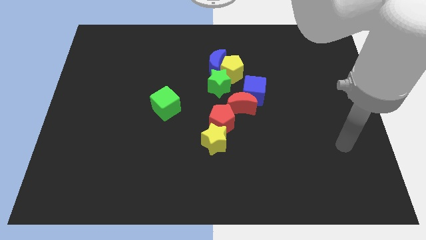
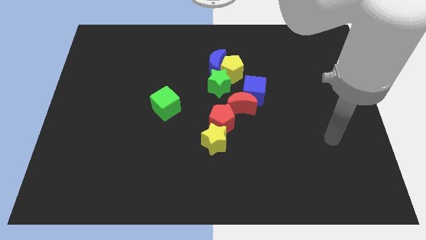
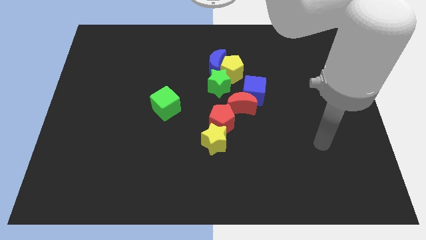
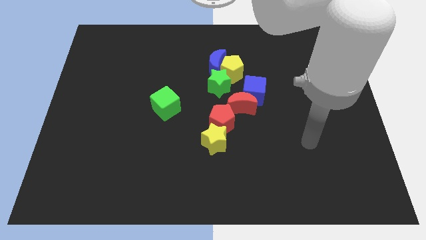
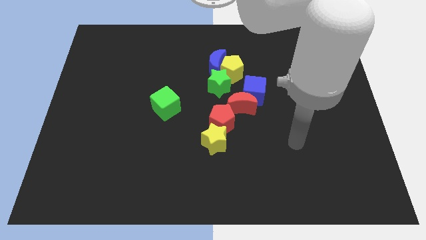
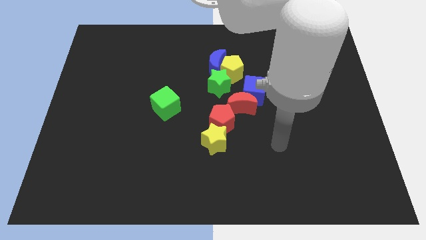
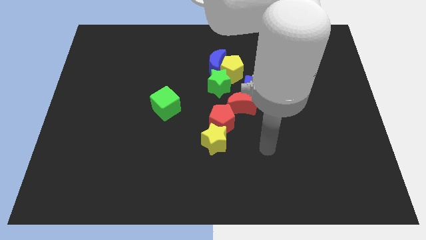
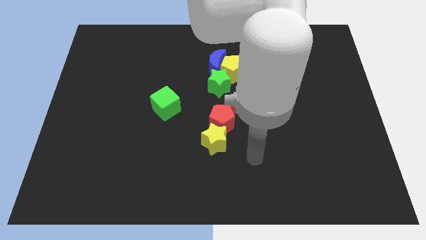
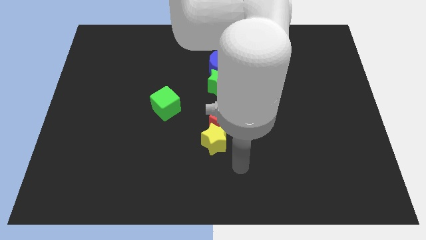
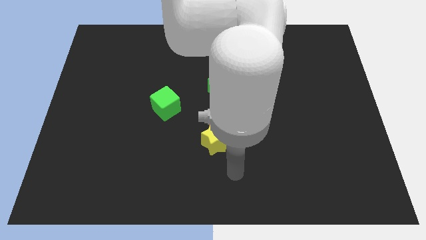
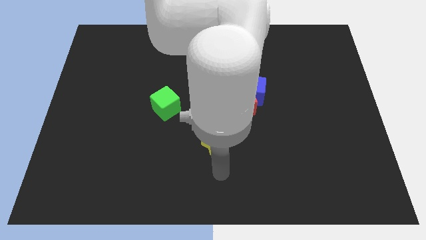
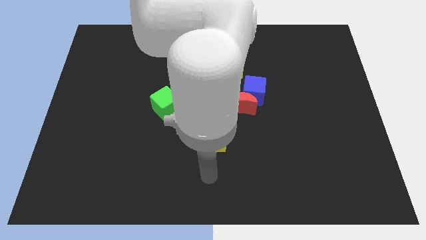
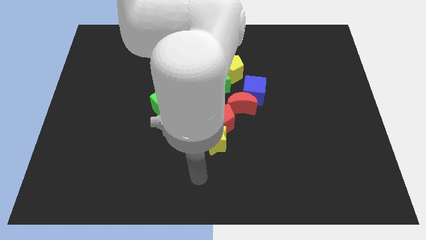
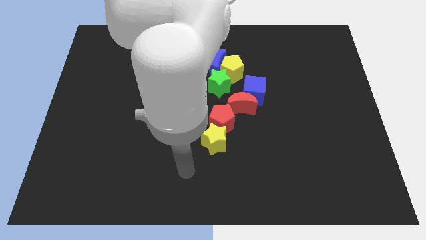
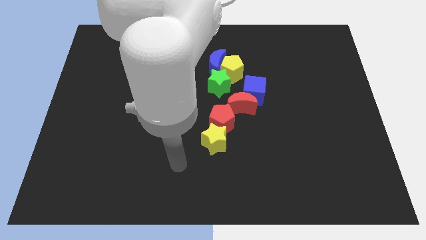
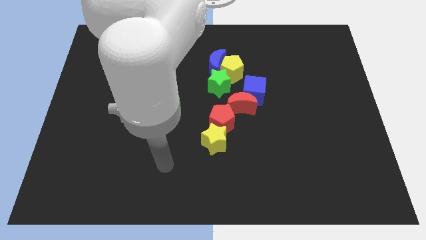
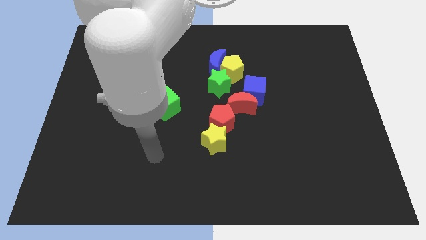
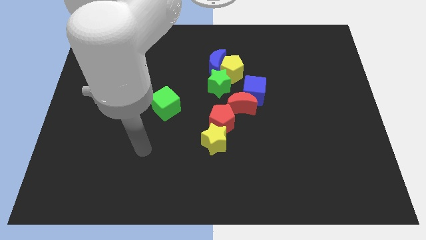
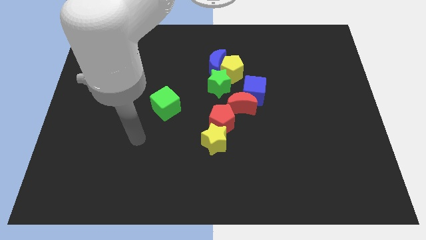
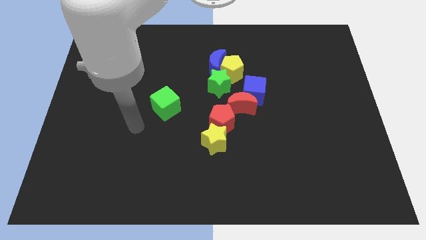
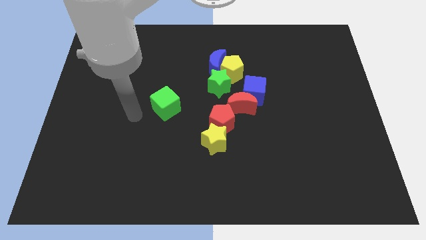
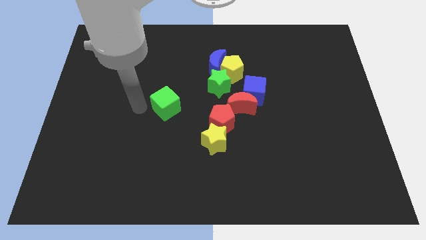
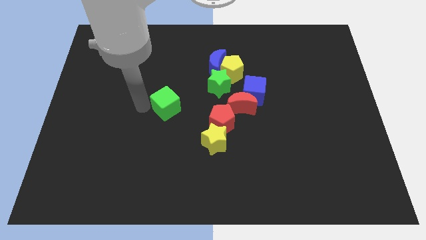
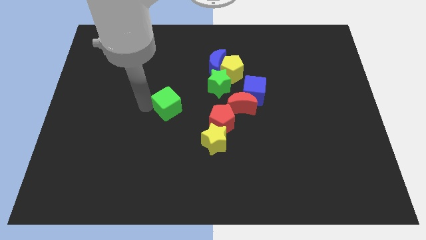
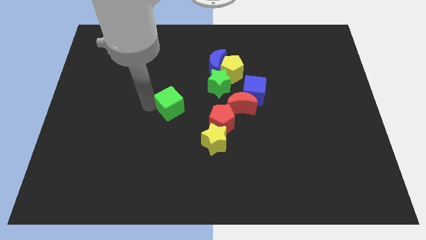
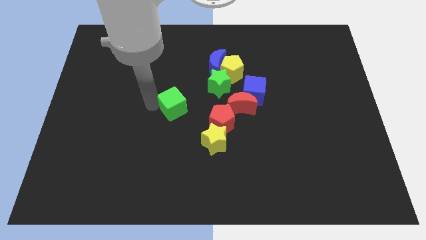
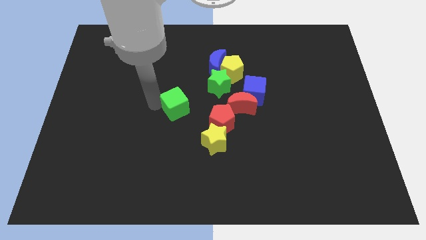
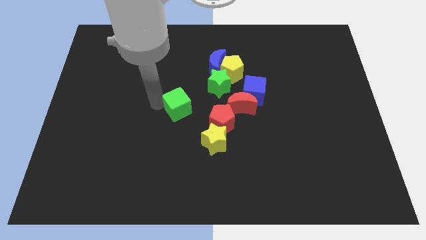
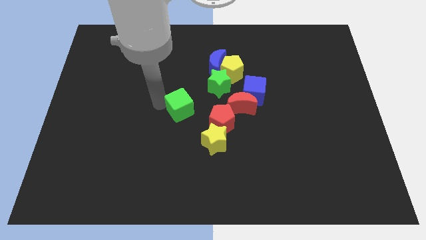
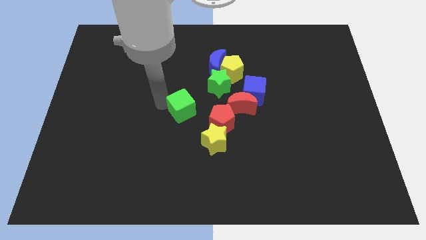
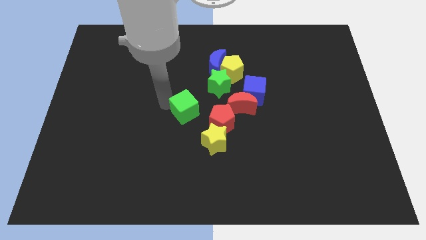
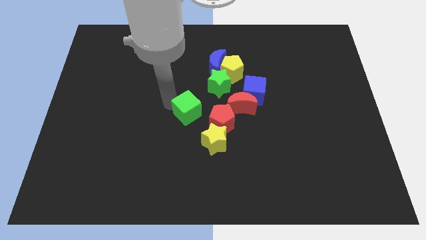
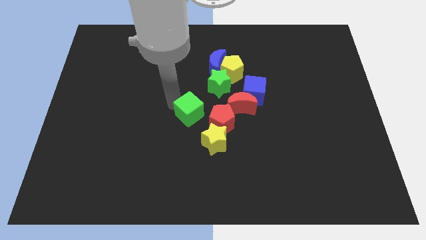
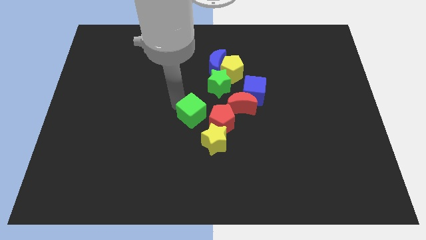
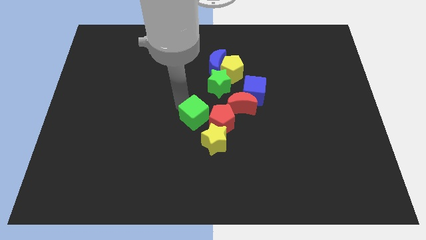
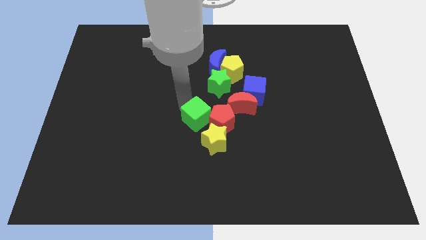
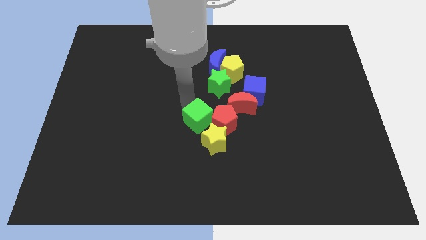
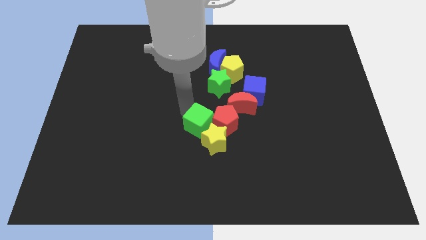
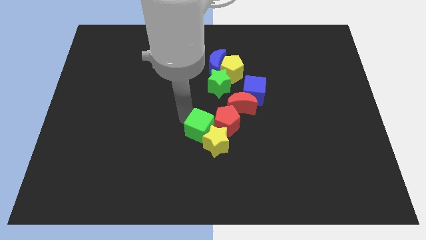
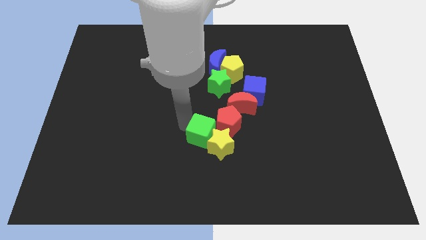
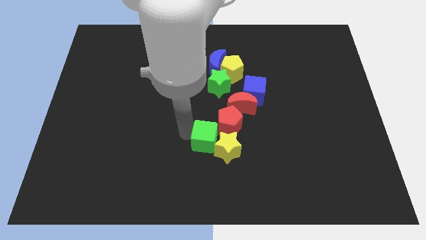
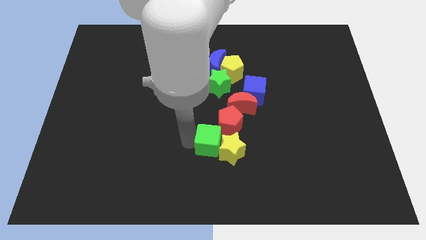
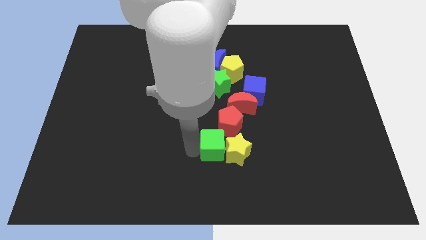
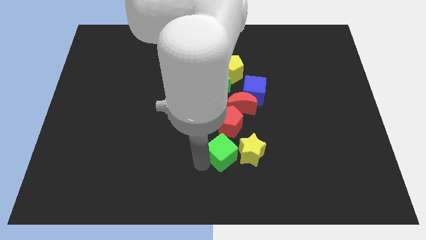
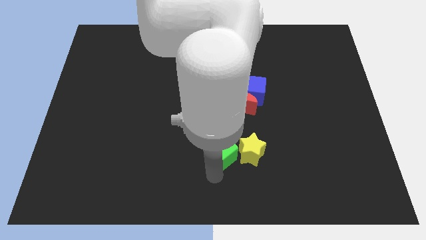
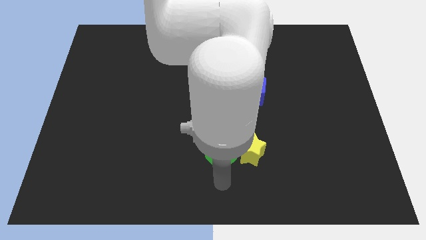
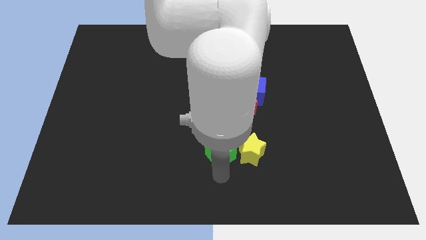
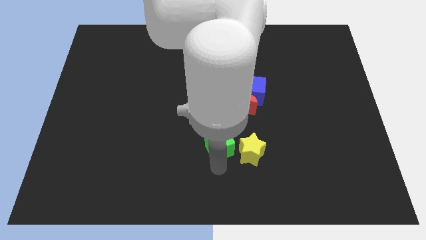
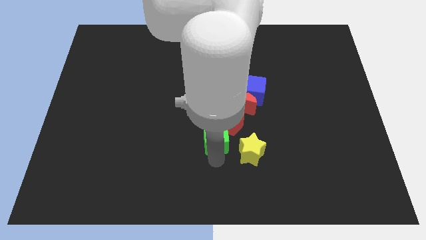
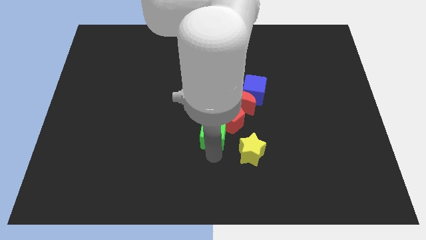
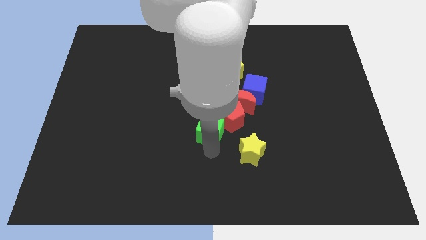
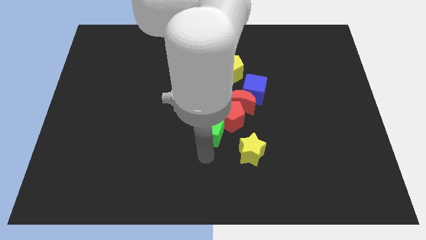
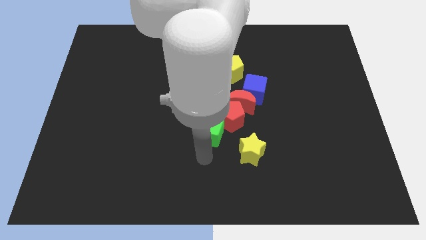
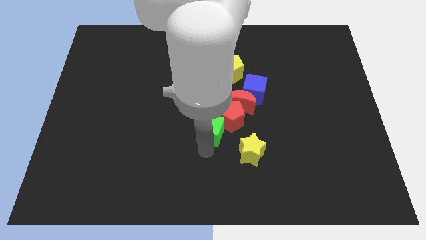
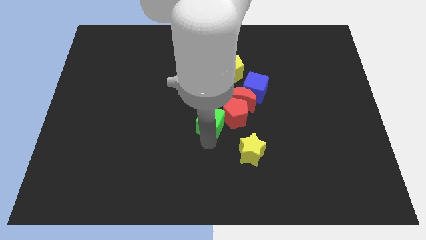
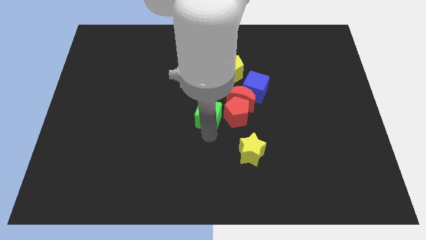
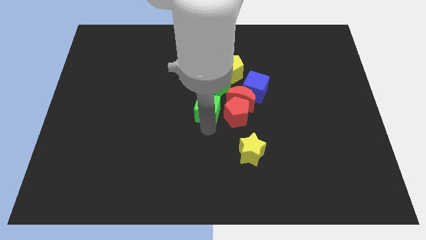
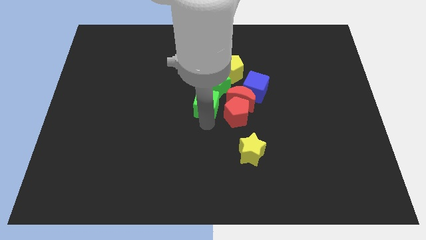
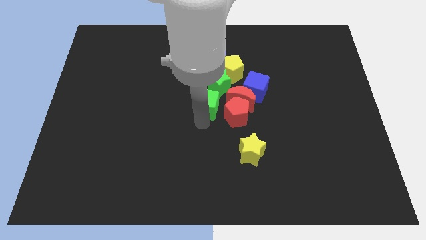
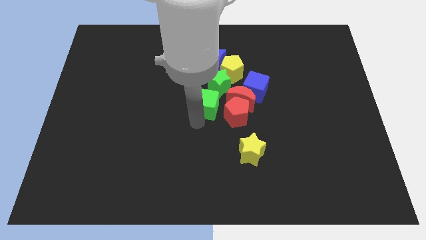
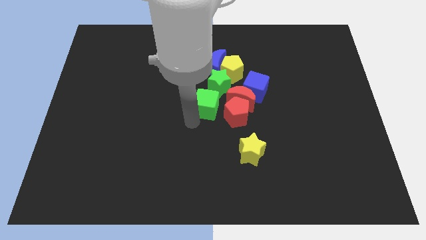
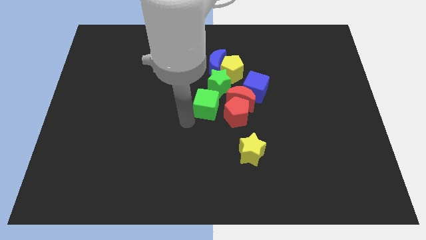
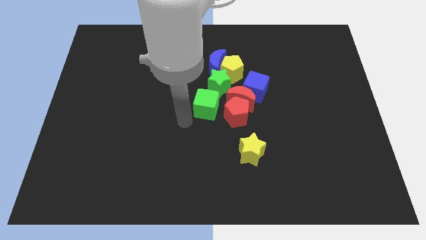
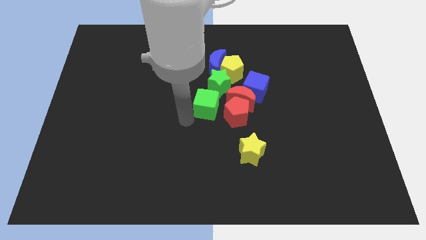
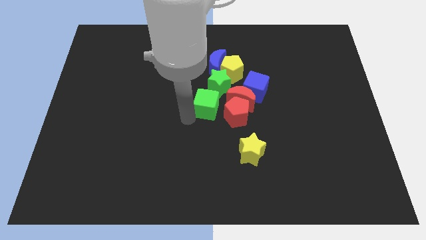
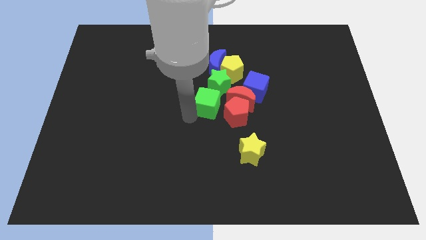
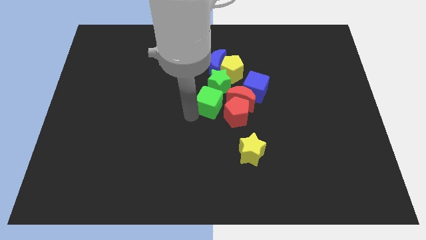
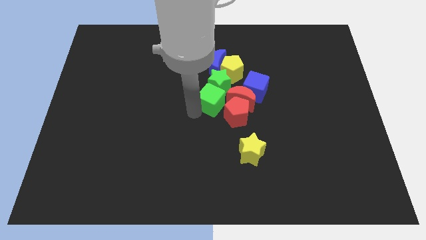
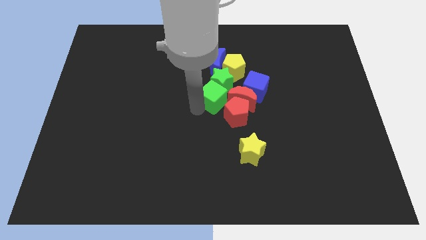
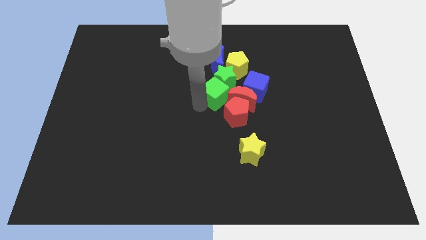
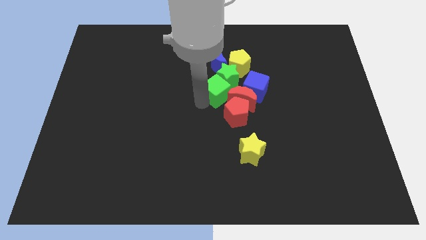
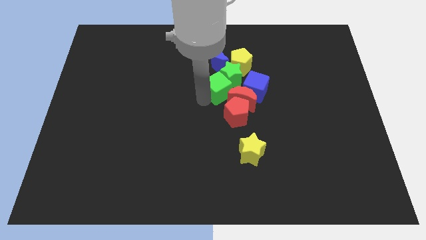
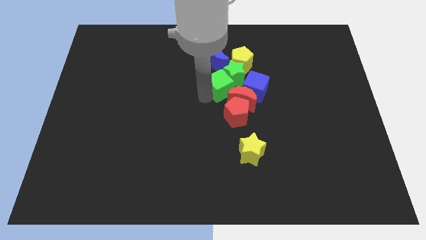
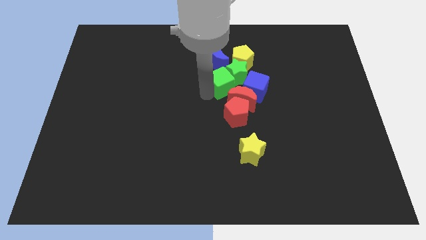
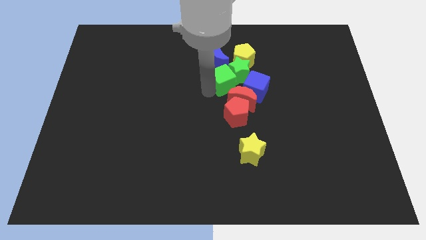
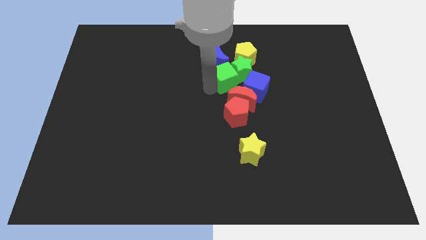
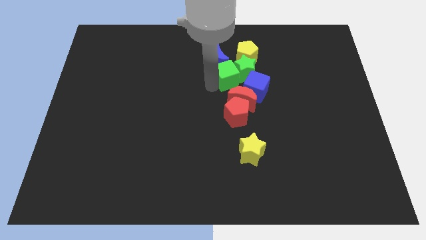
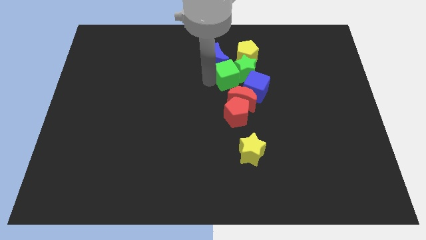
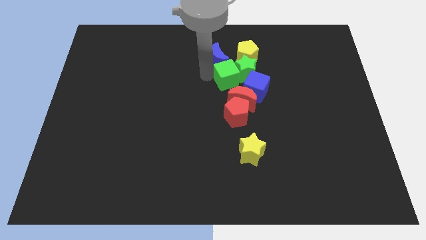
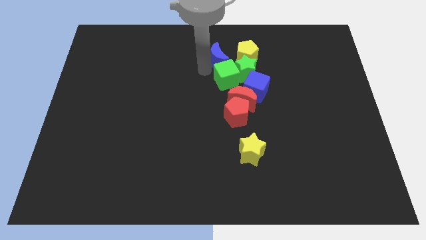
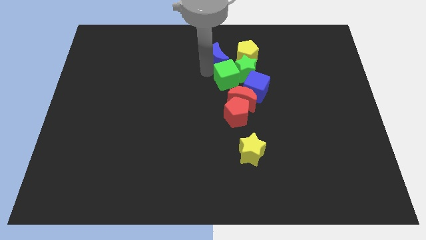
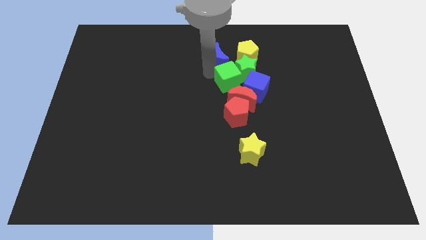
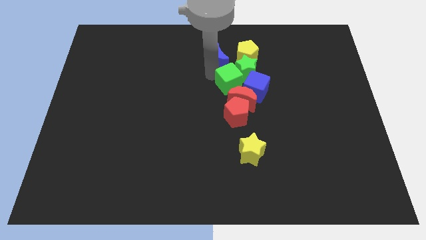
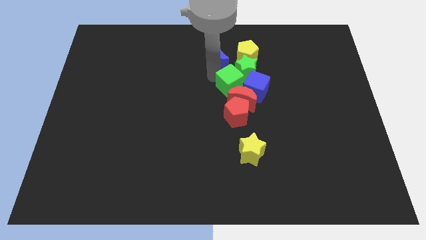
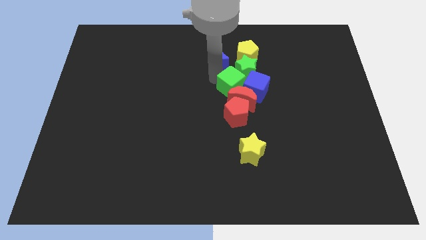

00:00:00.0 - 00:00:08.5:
push the green cube next to the blue cube
